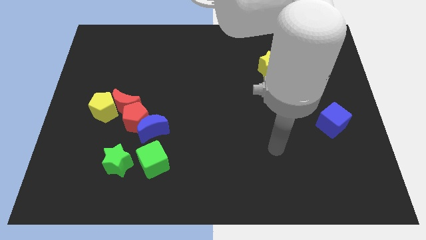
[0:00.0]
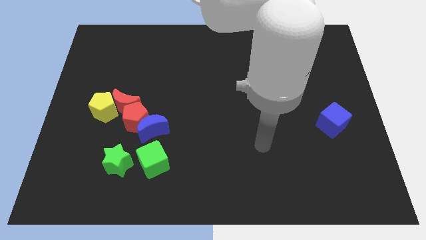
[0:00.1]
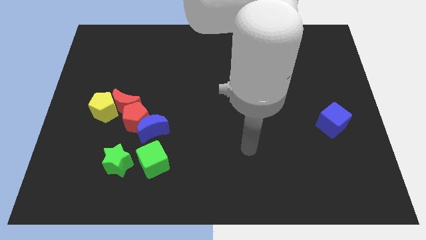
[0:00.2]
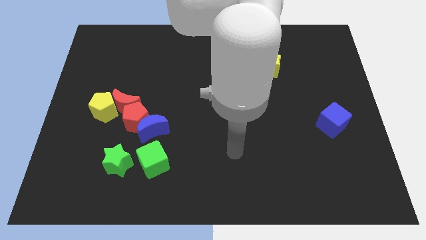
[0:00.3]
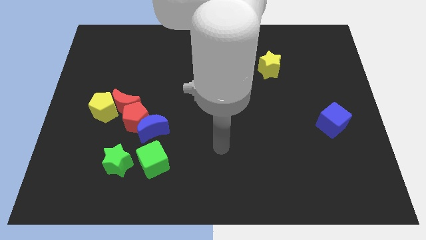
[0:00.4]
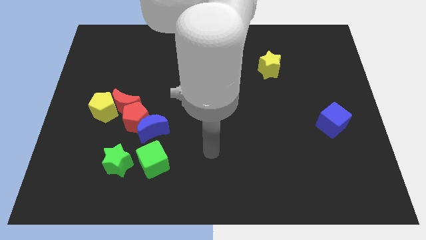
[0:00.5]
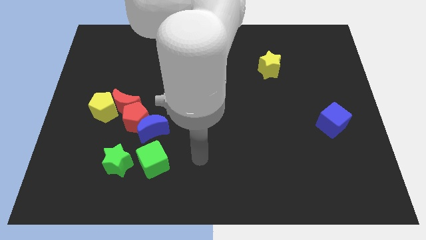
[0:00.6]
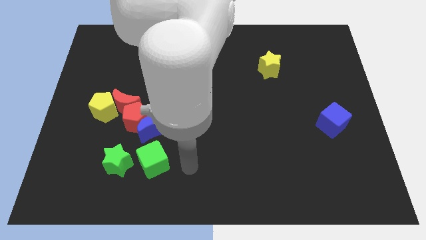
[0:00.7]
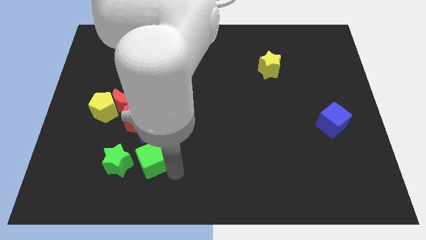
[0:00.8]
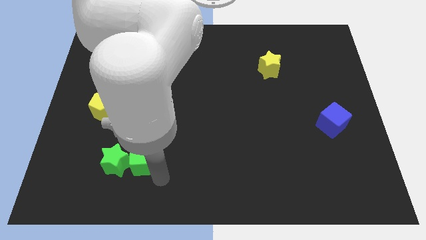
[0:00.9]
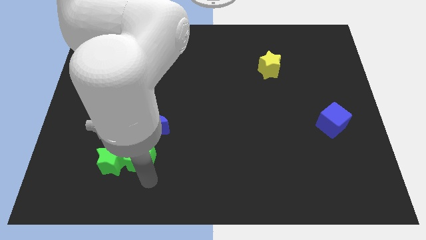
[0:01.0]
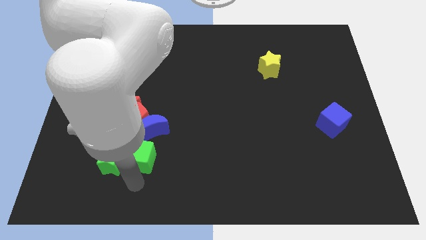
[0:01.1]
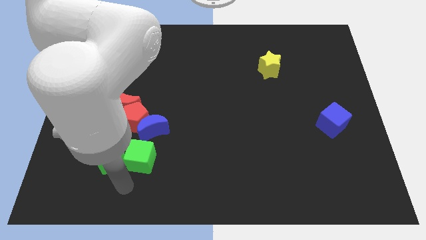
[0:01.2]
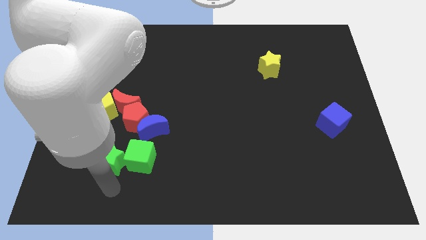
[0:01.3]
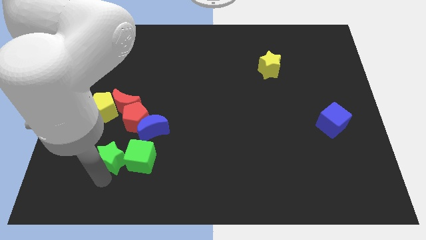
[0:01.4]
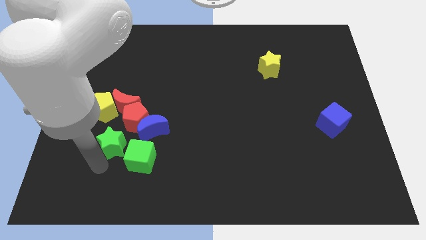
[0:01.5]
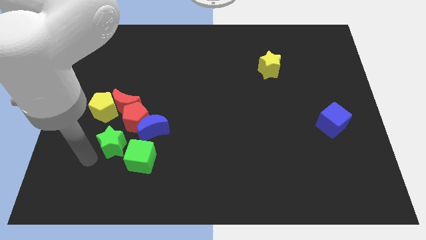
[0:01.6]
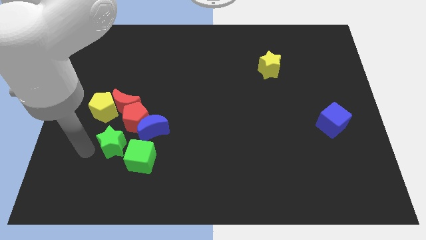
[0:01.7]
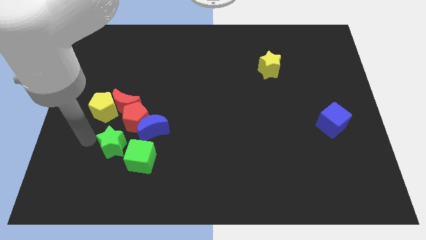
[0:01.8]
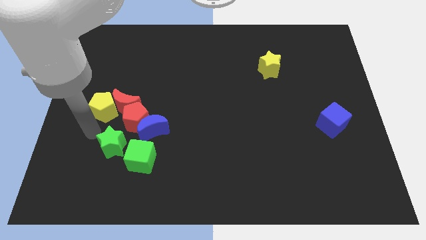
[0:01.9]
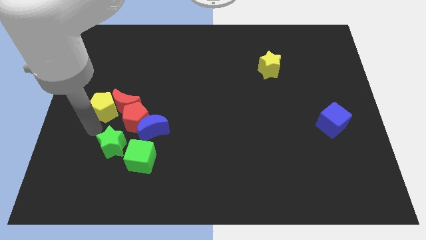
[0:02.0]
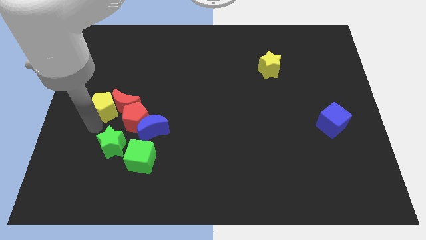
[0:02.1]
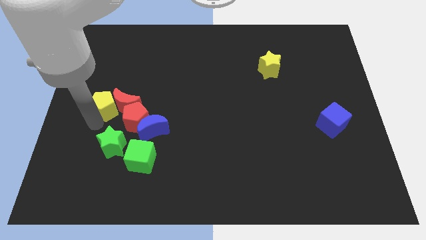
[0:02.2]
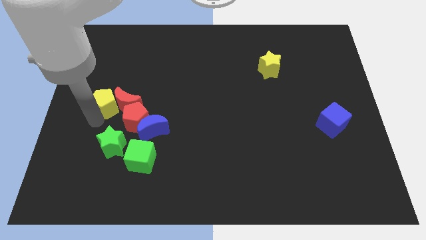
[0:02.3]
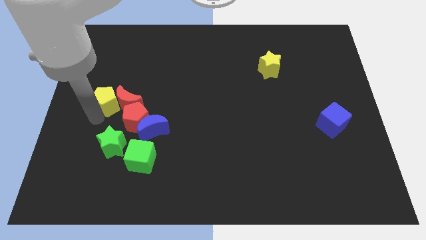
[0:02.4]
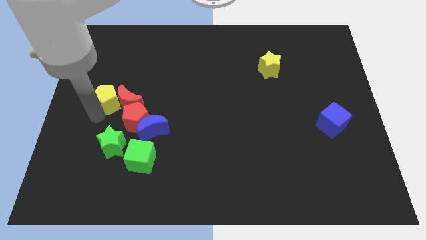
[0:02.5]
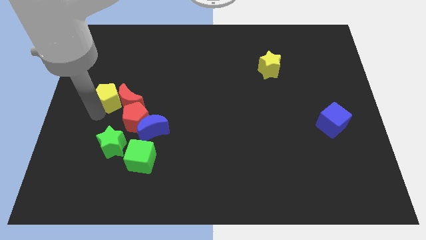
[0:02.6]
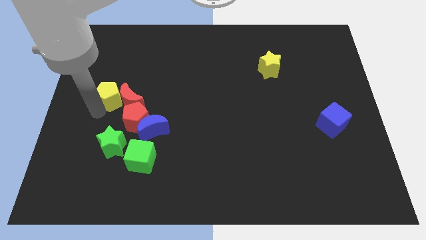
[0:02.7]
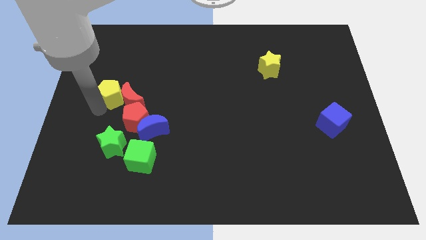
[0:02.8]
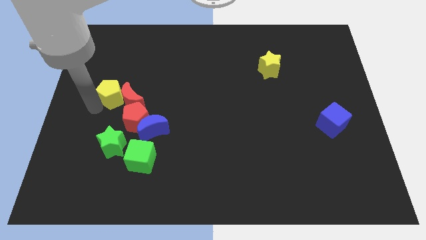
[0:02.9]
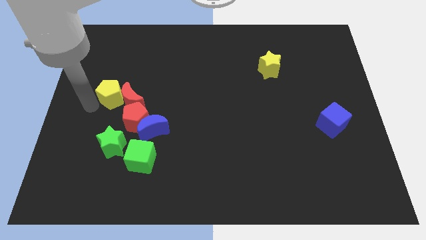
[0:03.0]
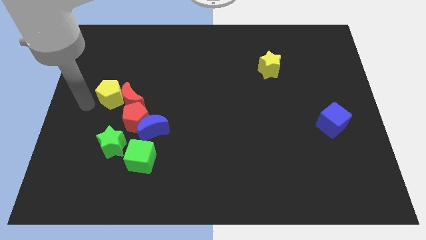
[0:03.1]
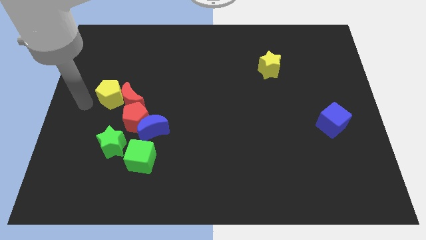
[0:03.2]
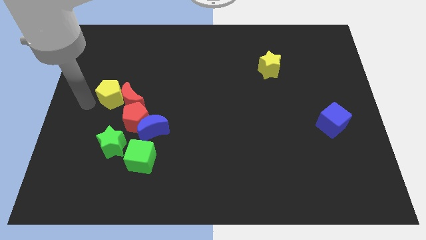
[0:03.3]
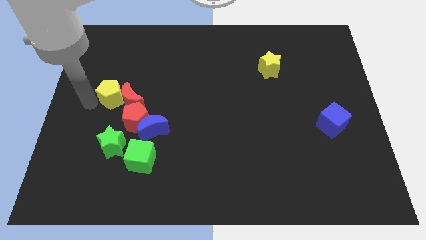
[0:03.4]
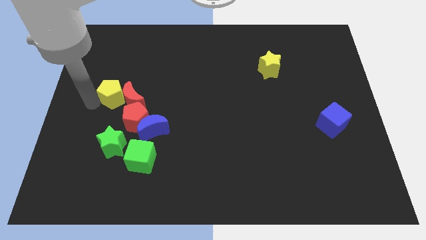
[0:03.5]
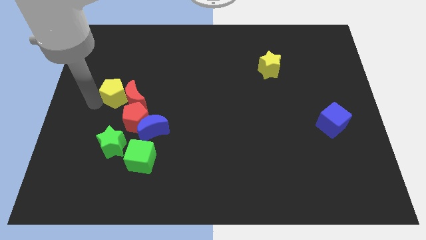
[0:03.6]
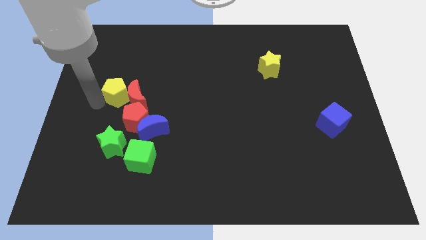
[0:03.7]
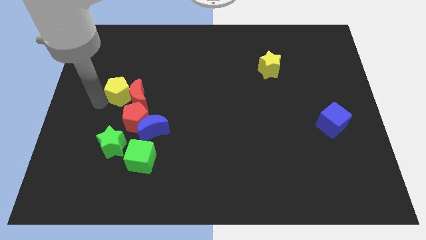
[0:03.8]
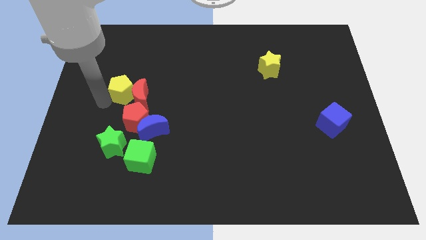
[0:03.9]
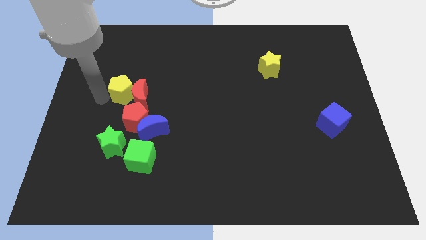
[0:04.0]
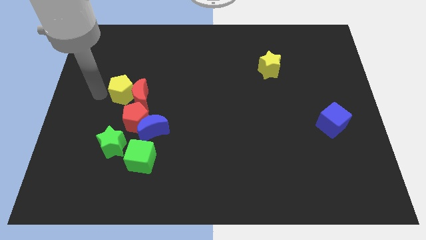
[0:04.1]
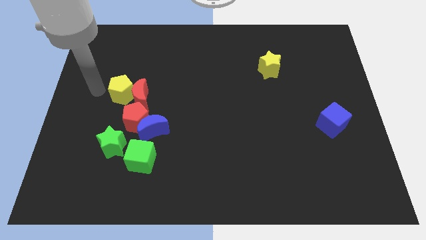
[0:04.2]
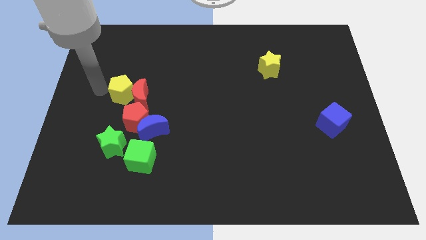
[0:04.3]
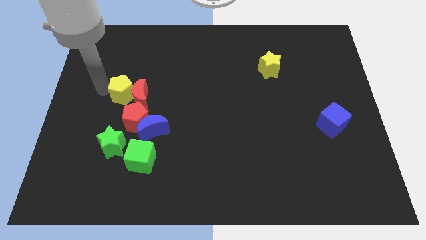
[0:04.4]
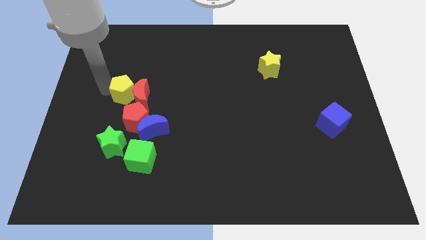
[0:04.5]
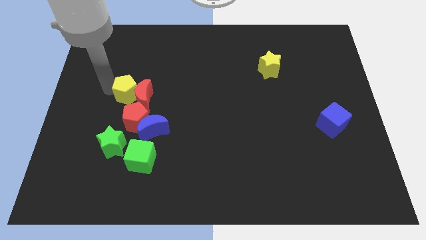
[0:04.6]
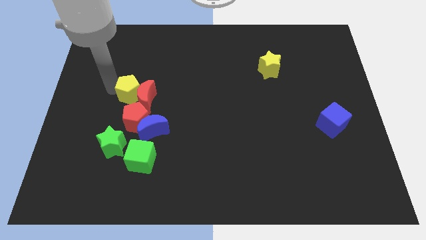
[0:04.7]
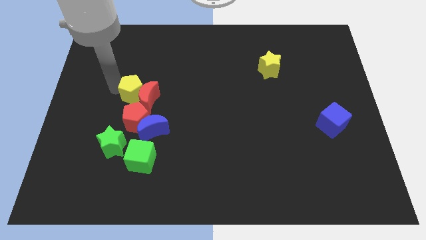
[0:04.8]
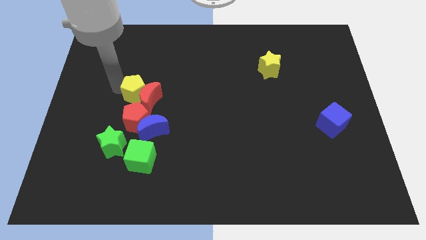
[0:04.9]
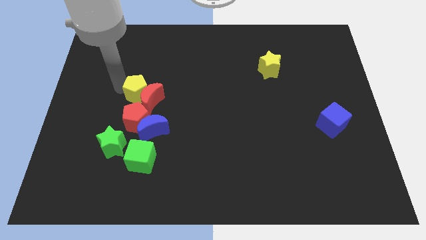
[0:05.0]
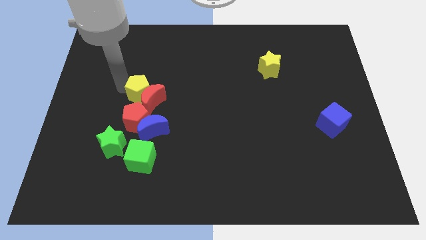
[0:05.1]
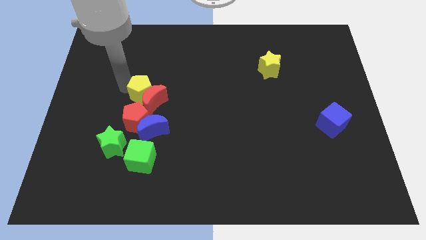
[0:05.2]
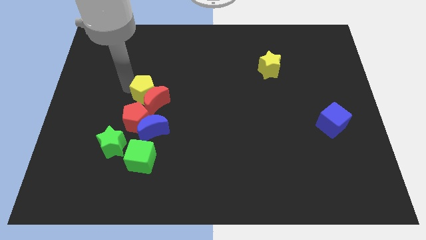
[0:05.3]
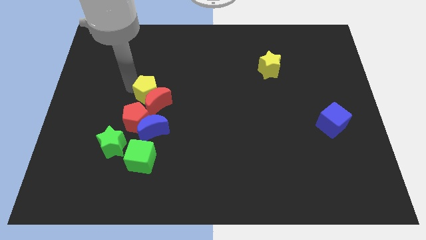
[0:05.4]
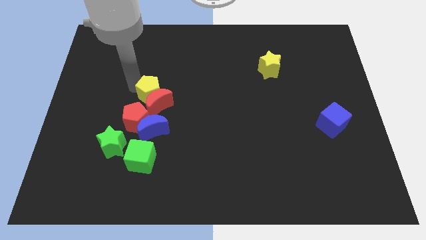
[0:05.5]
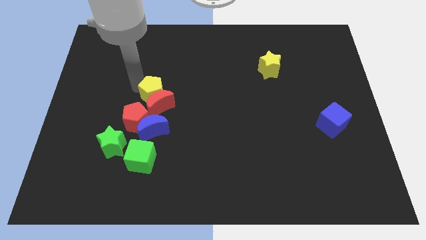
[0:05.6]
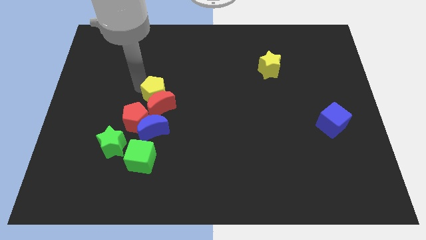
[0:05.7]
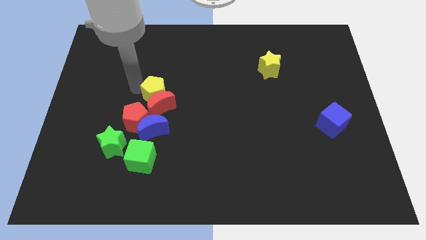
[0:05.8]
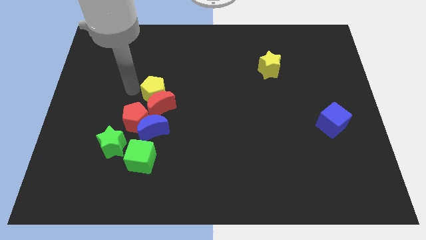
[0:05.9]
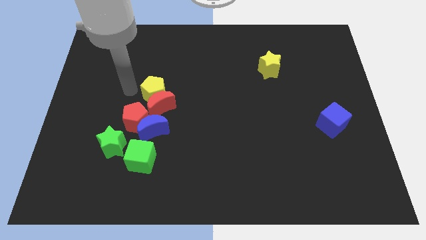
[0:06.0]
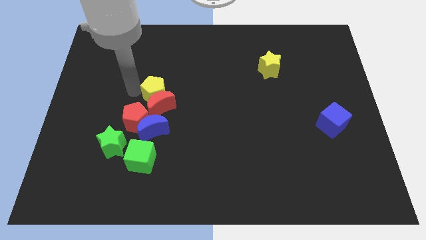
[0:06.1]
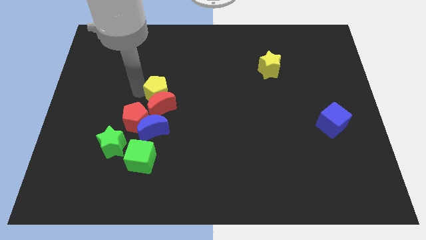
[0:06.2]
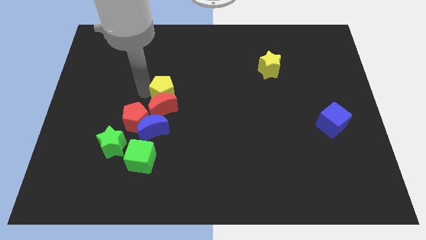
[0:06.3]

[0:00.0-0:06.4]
slide the yellow pentagon to the middle of the board

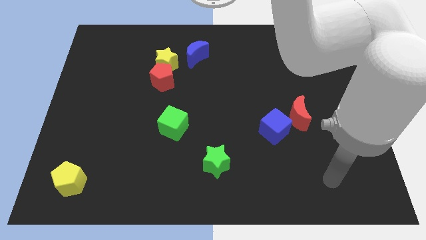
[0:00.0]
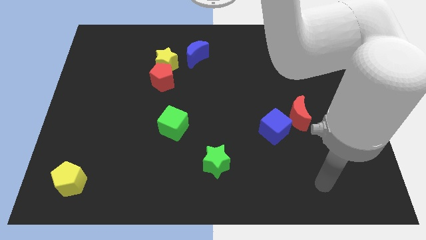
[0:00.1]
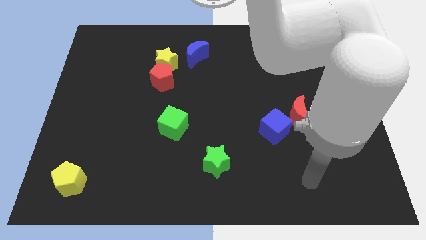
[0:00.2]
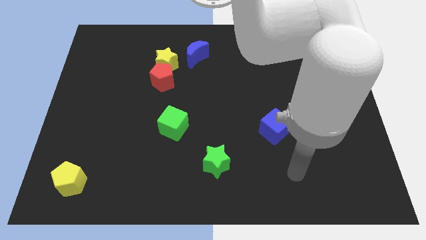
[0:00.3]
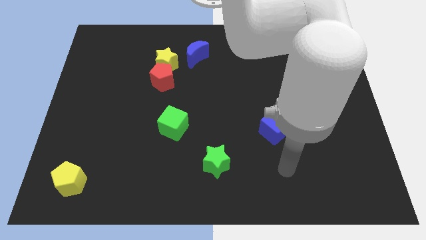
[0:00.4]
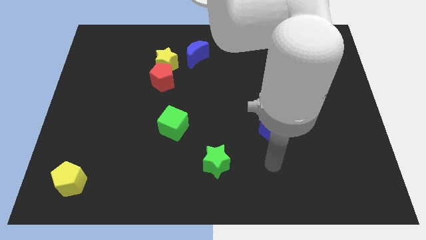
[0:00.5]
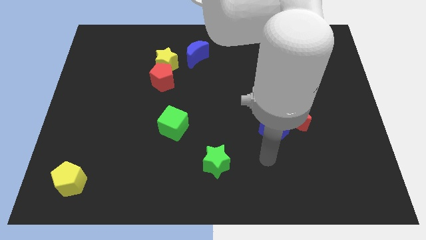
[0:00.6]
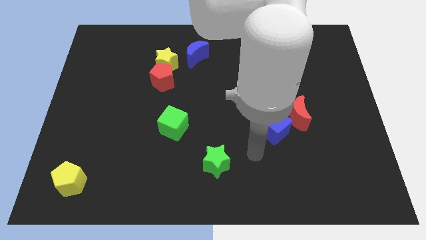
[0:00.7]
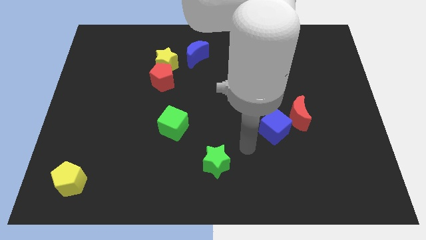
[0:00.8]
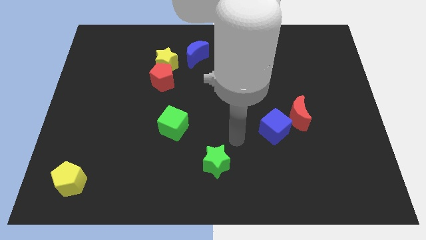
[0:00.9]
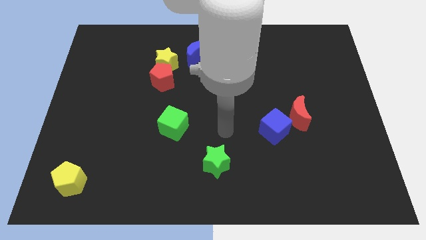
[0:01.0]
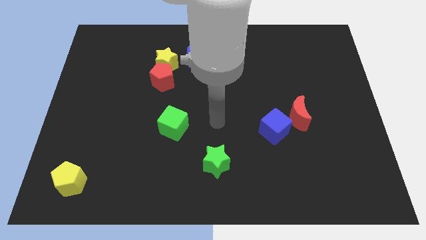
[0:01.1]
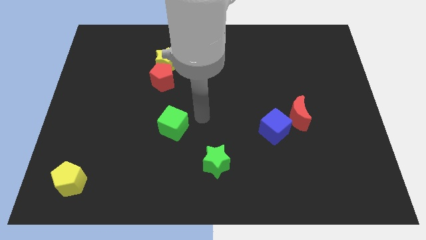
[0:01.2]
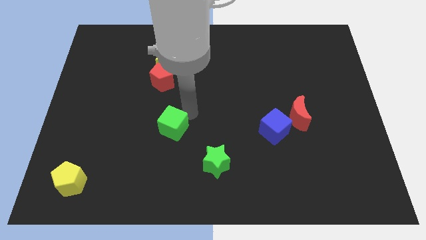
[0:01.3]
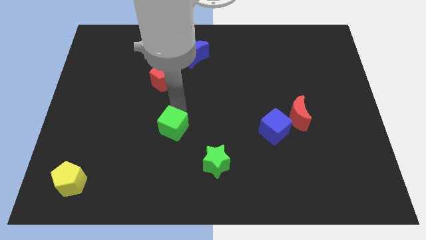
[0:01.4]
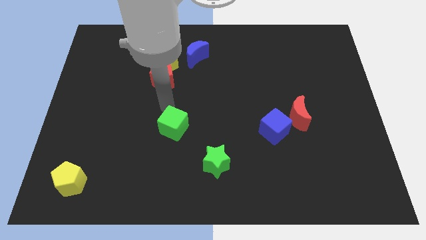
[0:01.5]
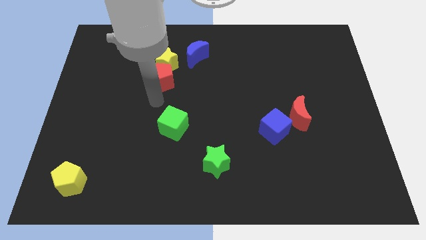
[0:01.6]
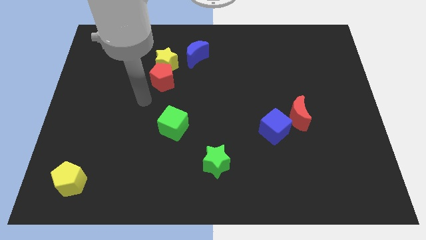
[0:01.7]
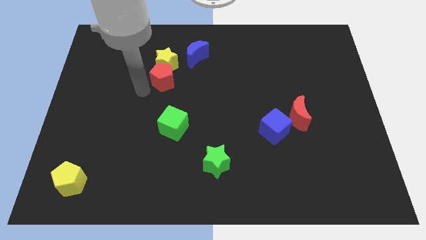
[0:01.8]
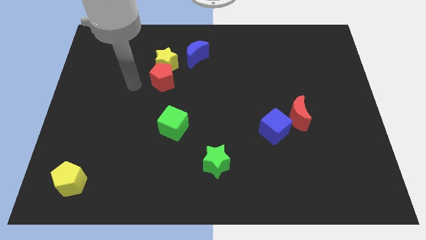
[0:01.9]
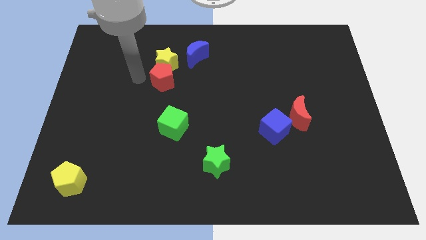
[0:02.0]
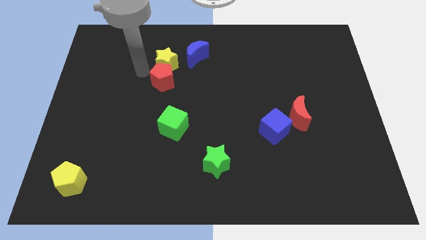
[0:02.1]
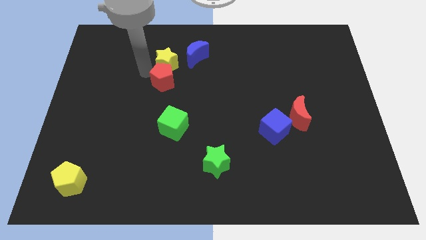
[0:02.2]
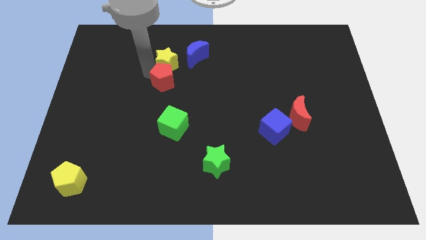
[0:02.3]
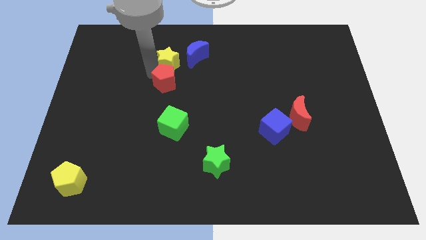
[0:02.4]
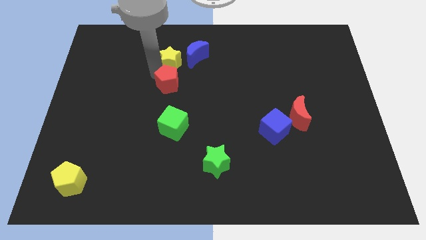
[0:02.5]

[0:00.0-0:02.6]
move the red pentagon to the center of the board
